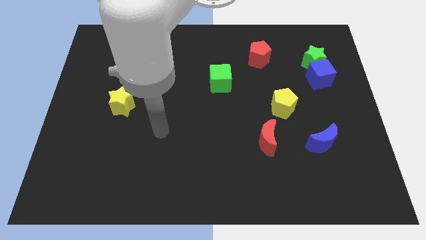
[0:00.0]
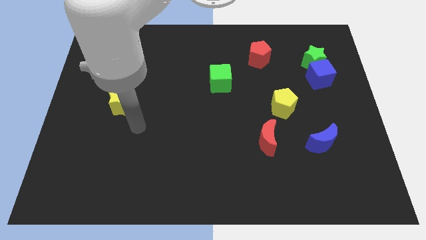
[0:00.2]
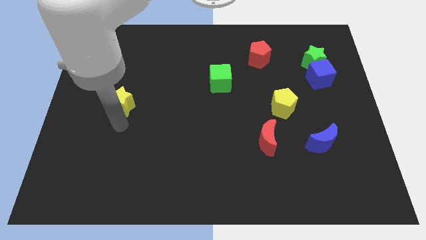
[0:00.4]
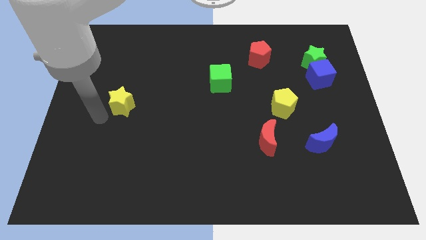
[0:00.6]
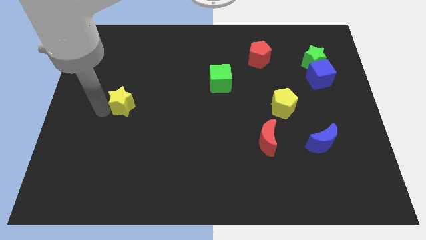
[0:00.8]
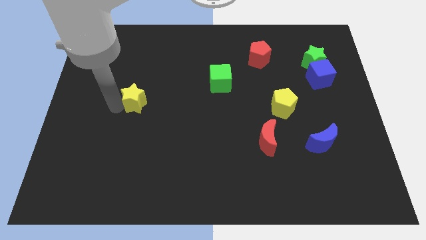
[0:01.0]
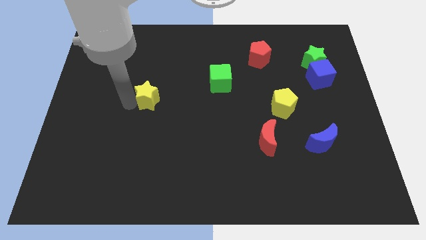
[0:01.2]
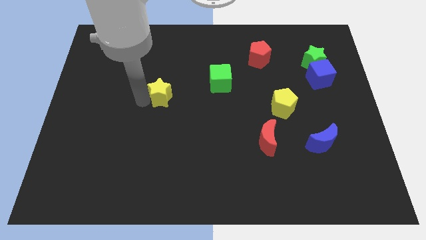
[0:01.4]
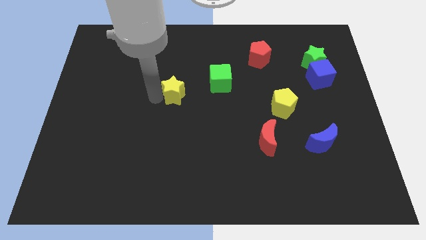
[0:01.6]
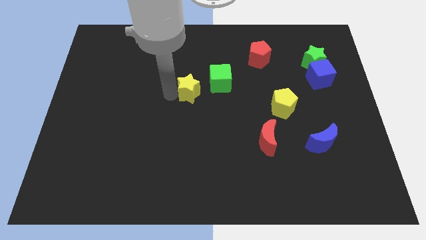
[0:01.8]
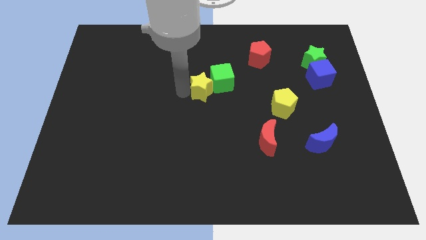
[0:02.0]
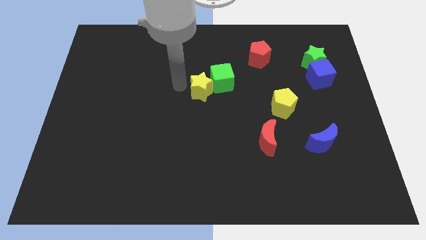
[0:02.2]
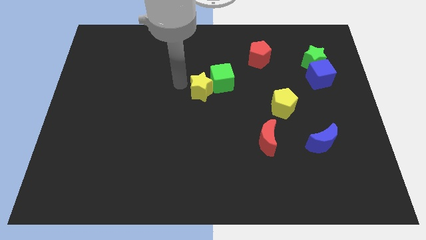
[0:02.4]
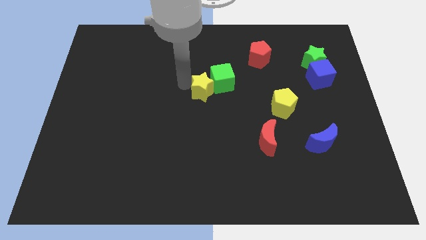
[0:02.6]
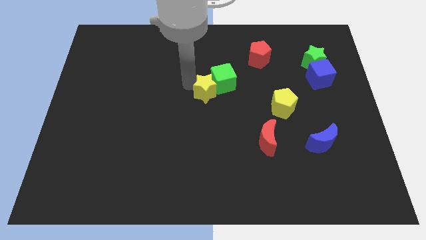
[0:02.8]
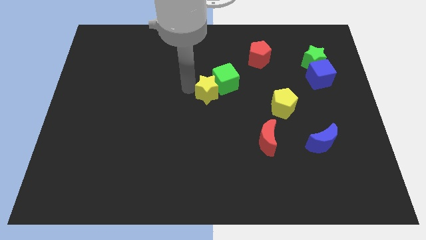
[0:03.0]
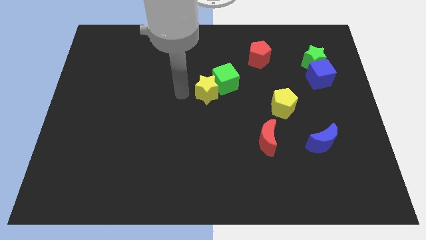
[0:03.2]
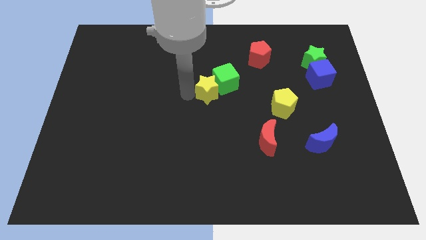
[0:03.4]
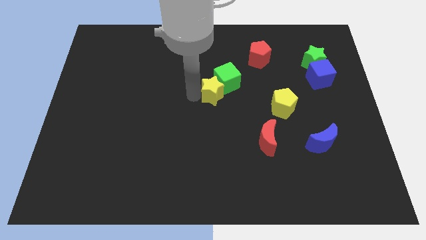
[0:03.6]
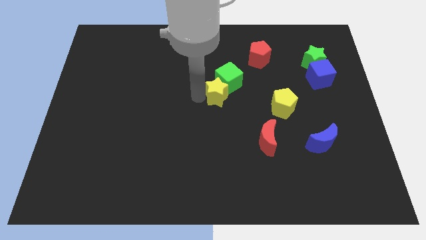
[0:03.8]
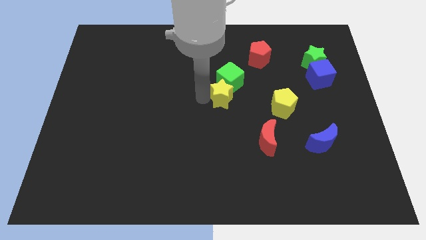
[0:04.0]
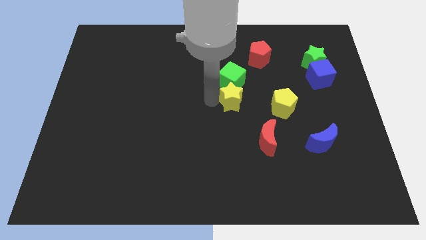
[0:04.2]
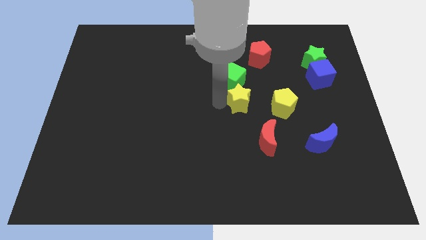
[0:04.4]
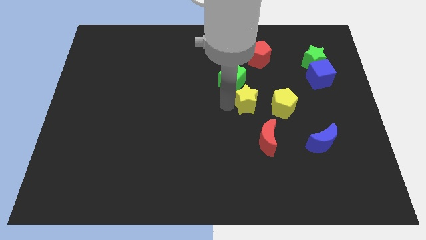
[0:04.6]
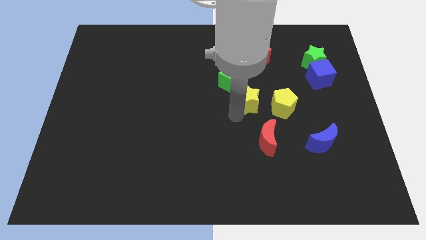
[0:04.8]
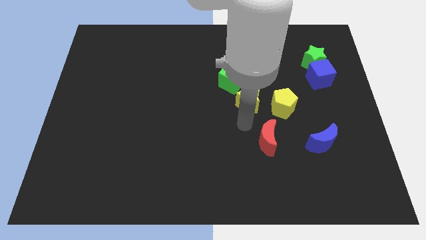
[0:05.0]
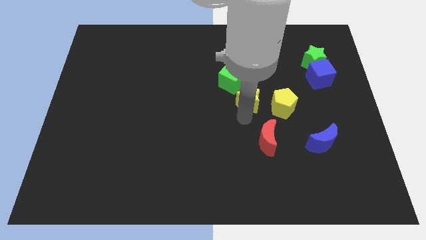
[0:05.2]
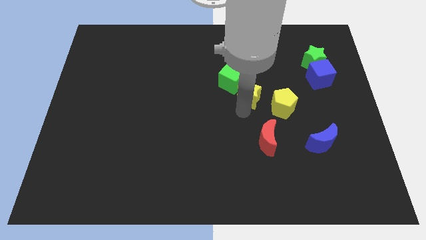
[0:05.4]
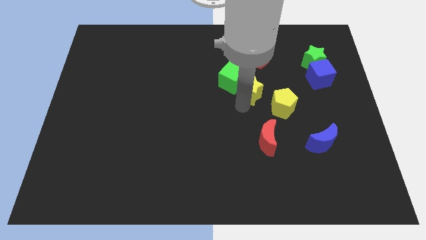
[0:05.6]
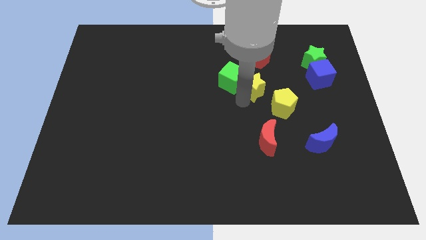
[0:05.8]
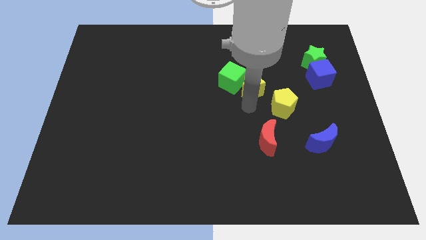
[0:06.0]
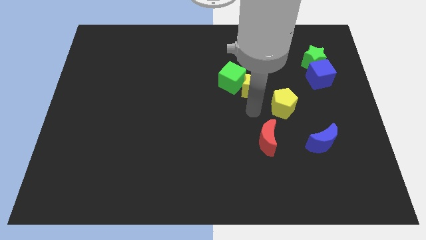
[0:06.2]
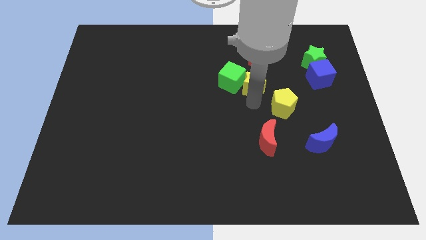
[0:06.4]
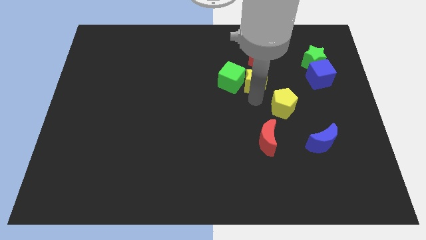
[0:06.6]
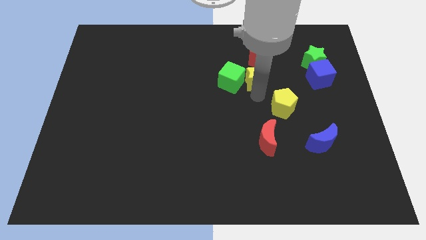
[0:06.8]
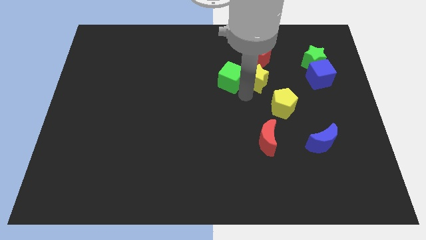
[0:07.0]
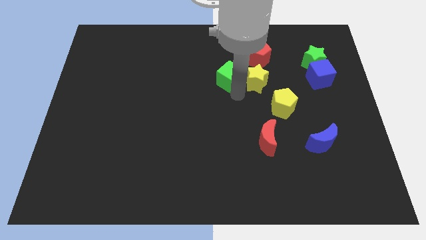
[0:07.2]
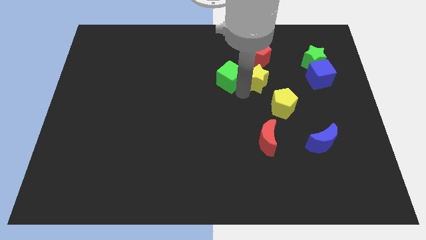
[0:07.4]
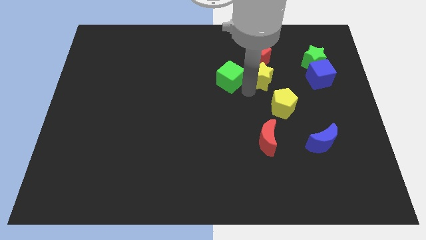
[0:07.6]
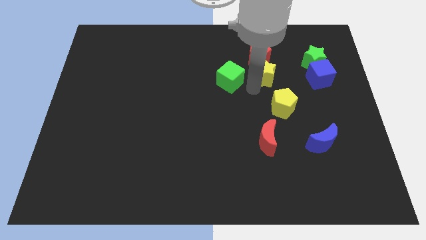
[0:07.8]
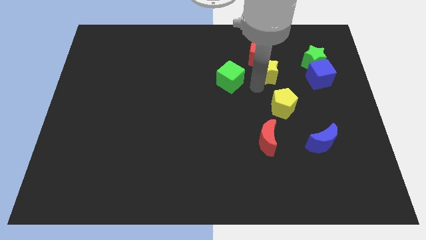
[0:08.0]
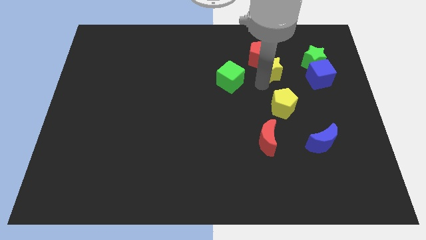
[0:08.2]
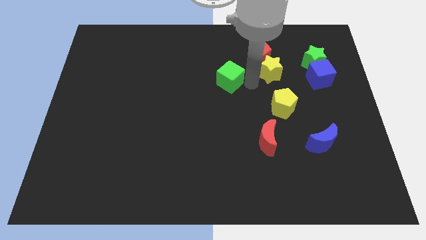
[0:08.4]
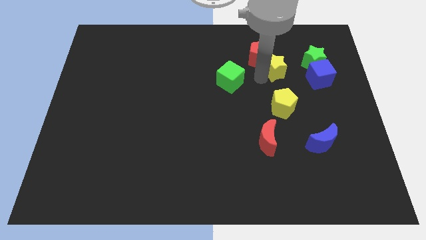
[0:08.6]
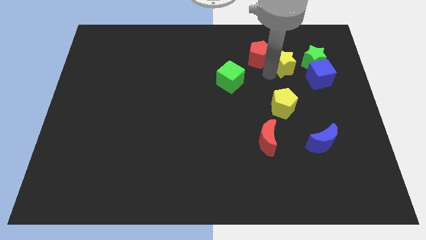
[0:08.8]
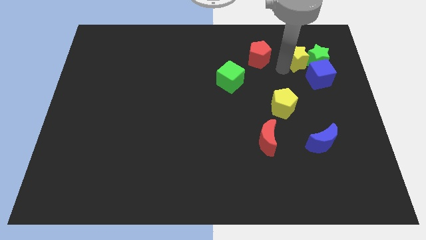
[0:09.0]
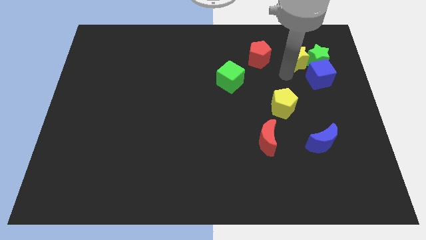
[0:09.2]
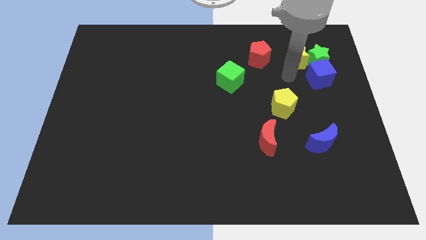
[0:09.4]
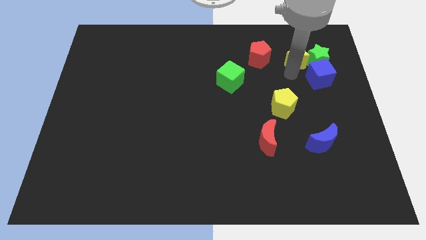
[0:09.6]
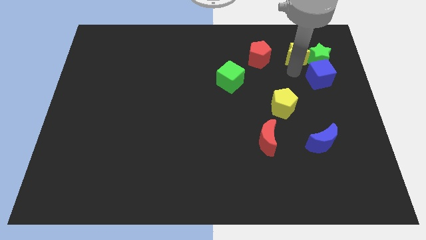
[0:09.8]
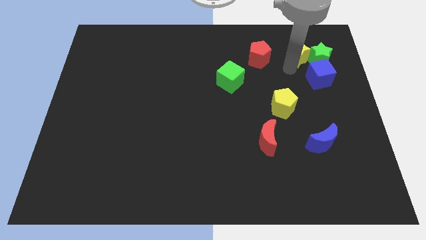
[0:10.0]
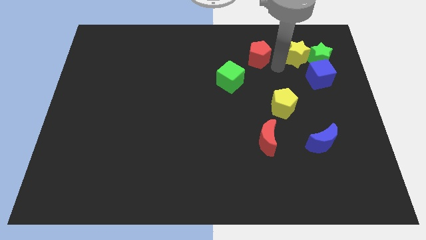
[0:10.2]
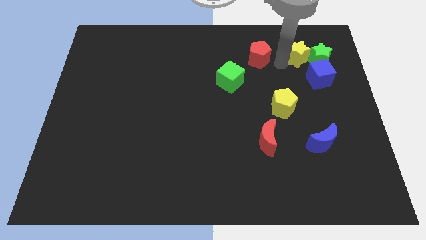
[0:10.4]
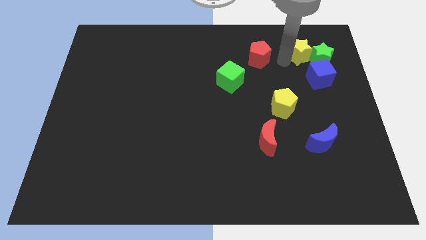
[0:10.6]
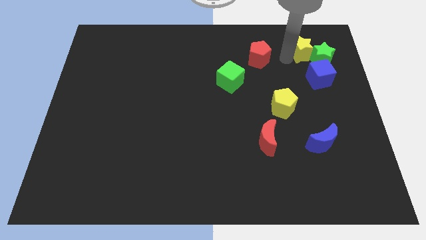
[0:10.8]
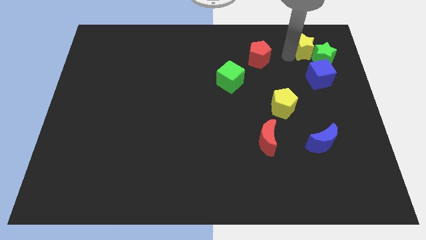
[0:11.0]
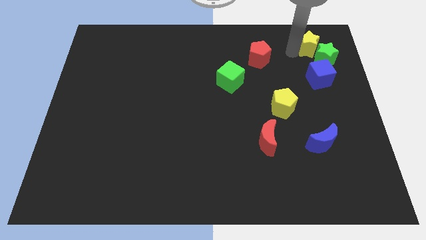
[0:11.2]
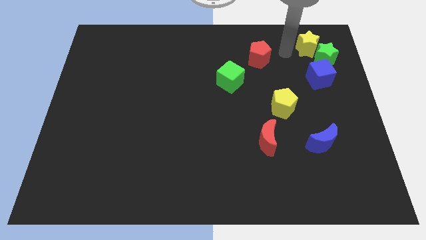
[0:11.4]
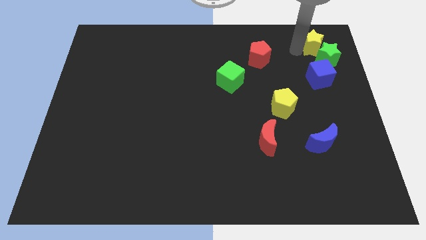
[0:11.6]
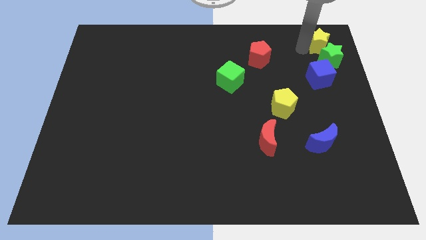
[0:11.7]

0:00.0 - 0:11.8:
put the yellow star to the top right
